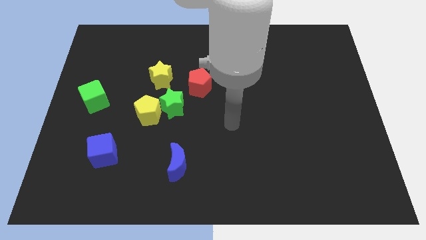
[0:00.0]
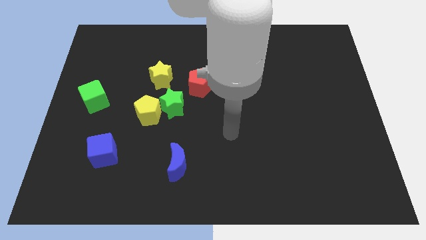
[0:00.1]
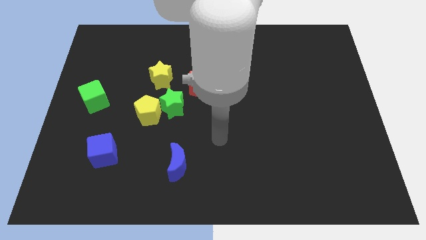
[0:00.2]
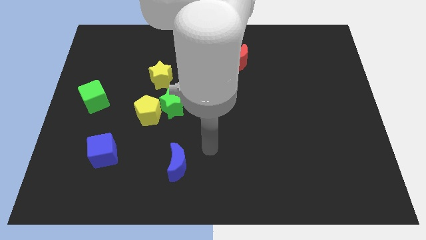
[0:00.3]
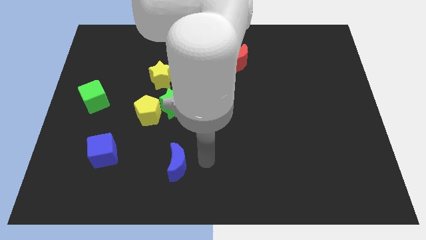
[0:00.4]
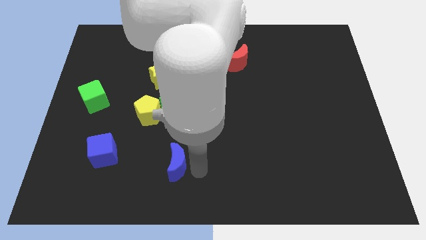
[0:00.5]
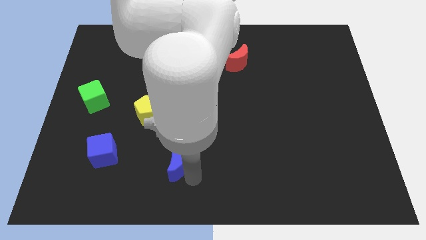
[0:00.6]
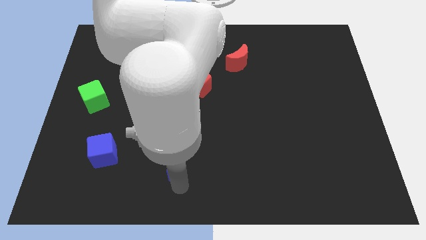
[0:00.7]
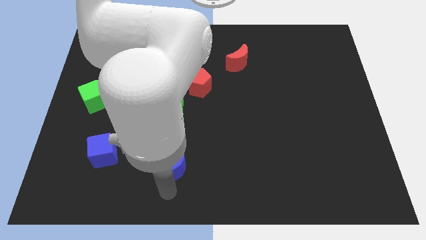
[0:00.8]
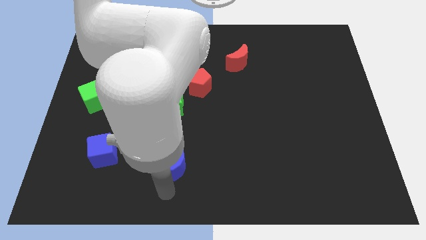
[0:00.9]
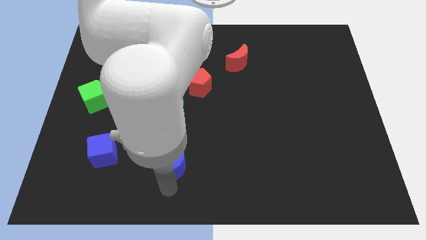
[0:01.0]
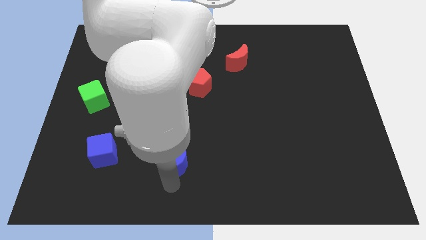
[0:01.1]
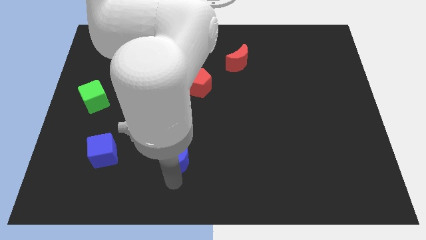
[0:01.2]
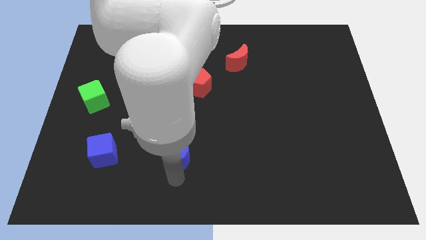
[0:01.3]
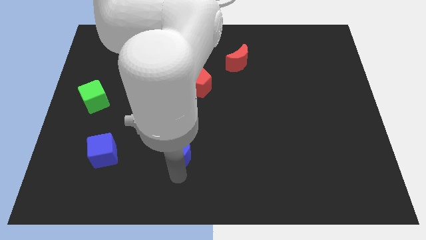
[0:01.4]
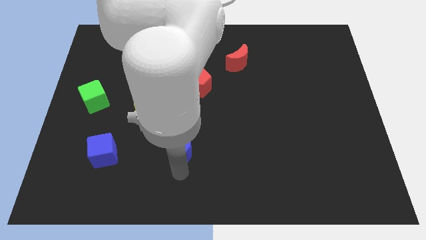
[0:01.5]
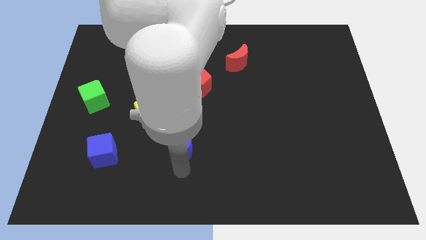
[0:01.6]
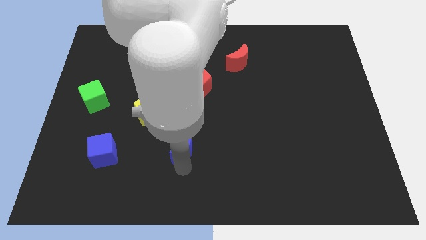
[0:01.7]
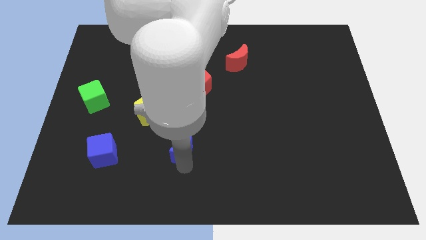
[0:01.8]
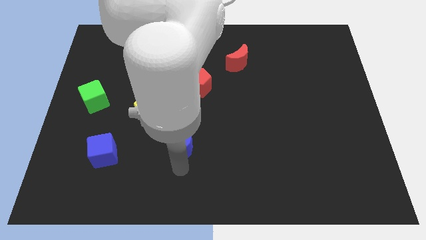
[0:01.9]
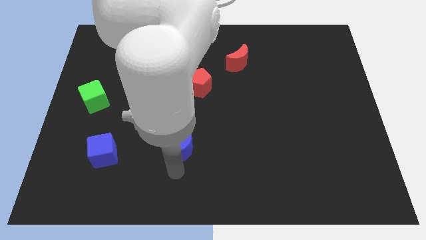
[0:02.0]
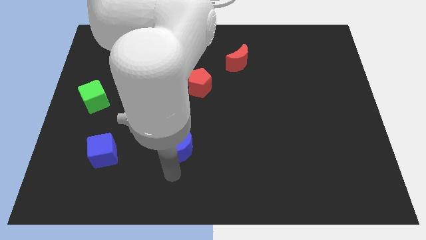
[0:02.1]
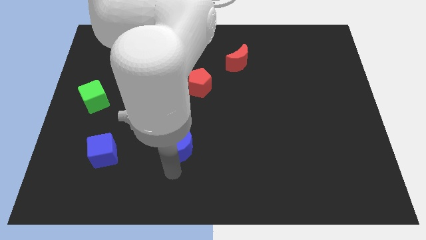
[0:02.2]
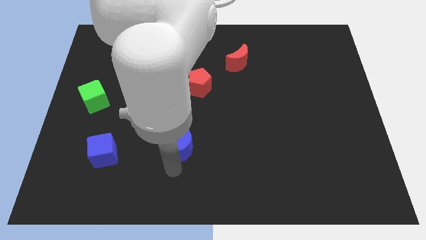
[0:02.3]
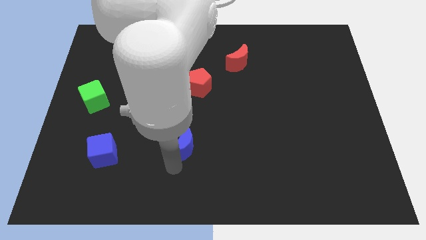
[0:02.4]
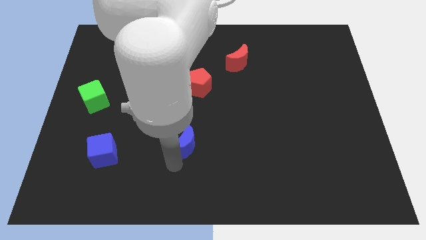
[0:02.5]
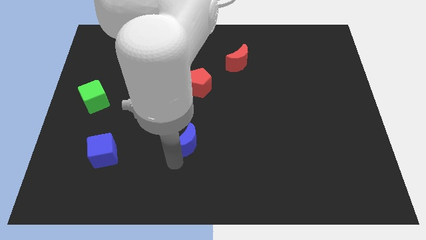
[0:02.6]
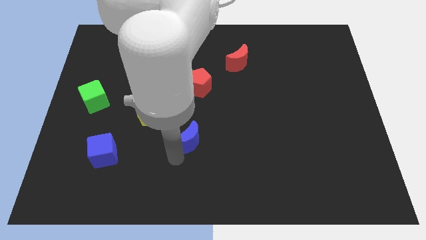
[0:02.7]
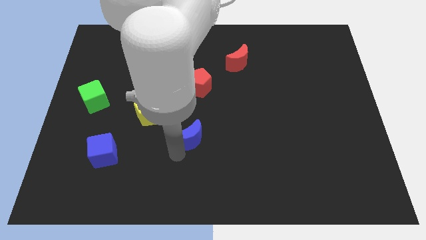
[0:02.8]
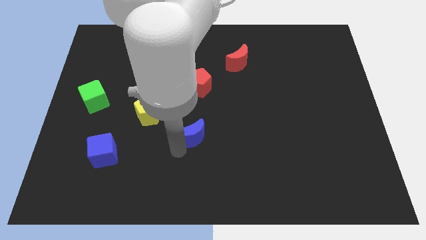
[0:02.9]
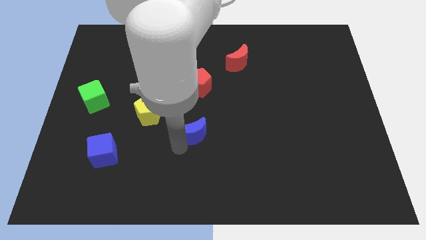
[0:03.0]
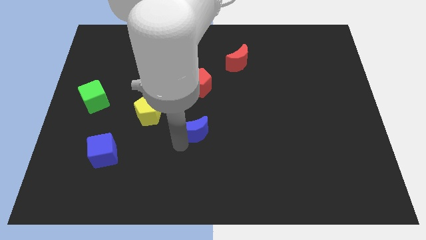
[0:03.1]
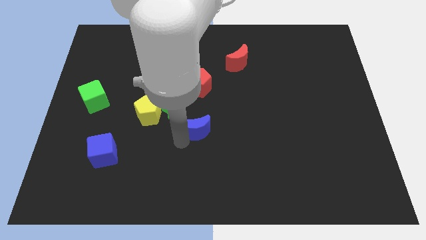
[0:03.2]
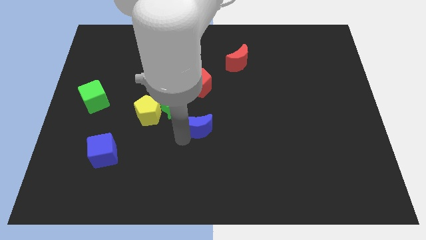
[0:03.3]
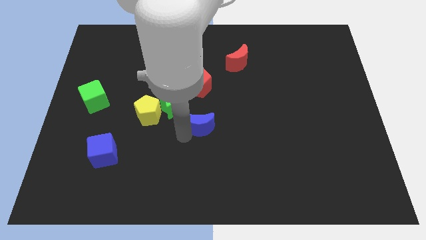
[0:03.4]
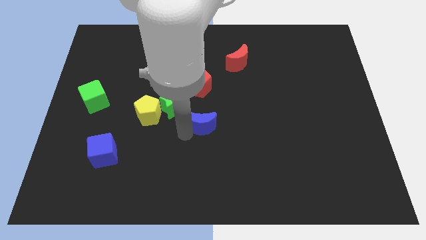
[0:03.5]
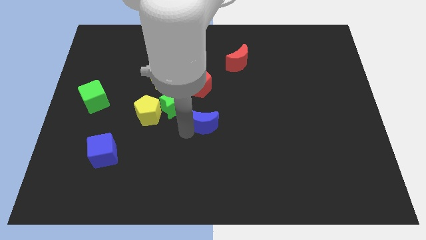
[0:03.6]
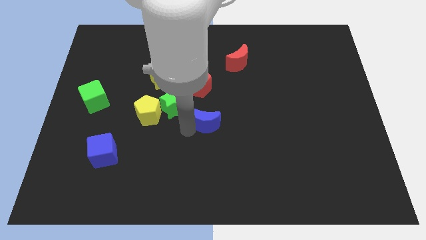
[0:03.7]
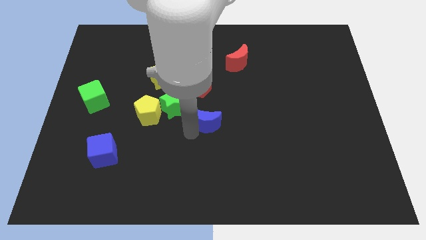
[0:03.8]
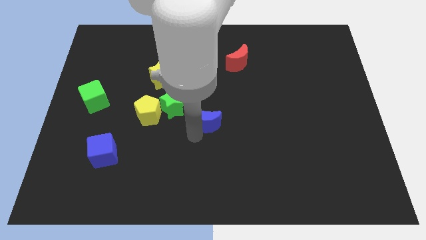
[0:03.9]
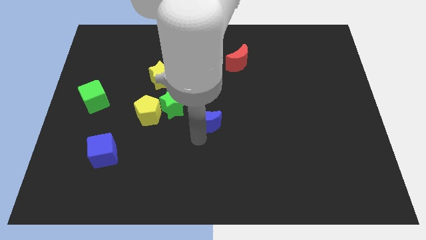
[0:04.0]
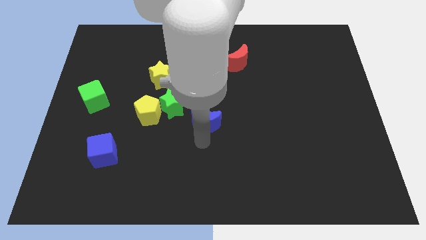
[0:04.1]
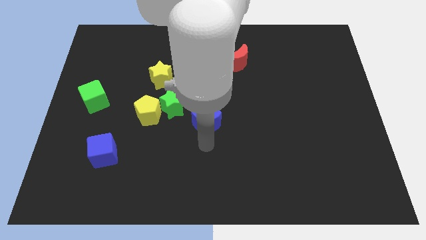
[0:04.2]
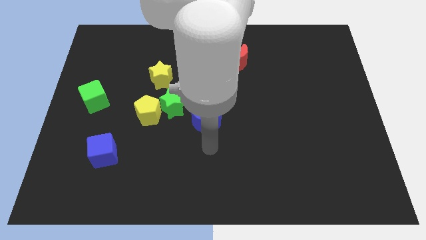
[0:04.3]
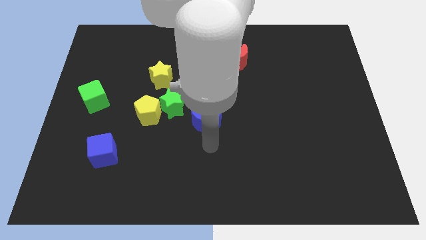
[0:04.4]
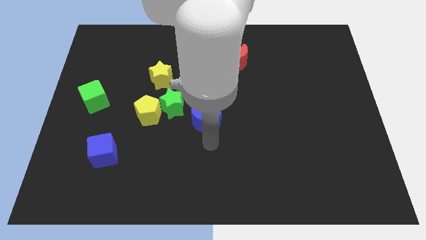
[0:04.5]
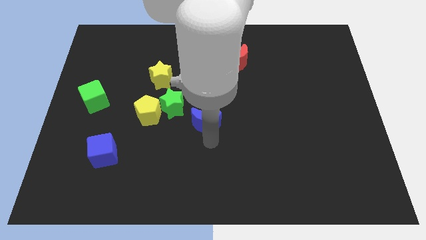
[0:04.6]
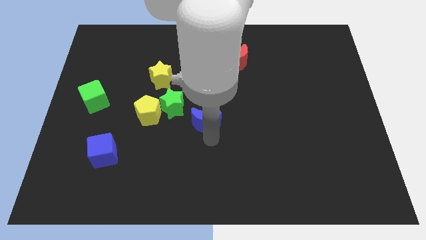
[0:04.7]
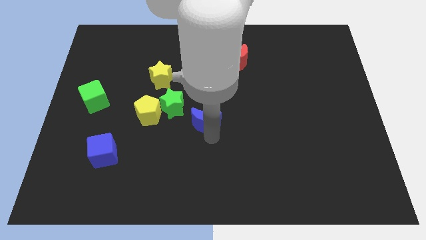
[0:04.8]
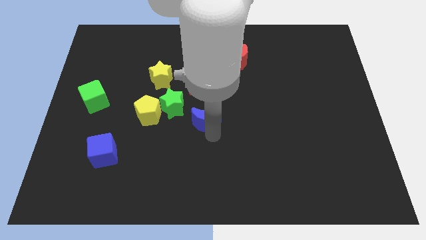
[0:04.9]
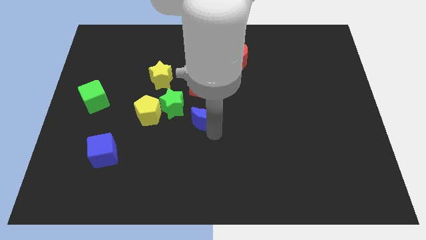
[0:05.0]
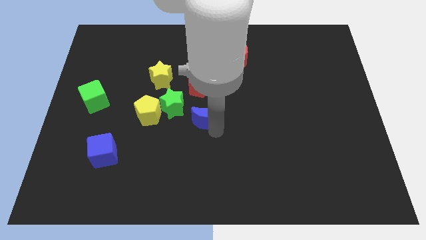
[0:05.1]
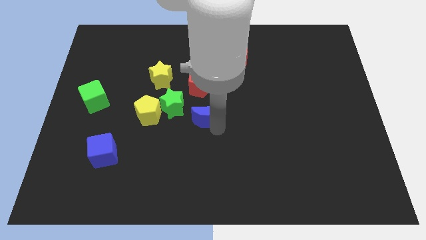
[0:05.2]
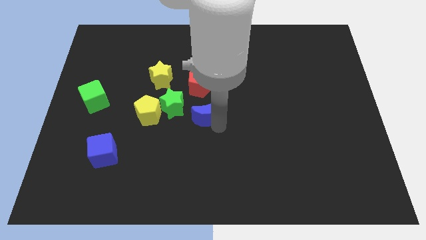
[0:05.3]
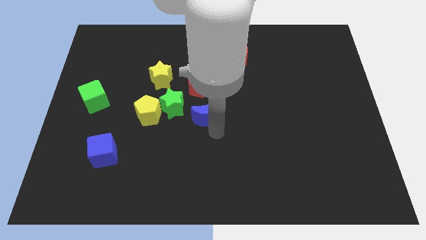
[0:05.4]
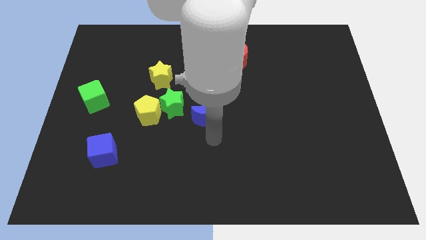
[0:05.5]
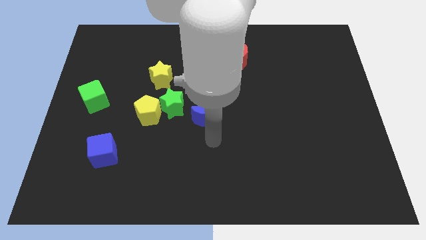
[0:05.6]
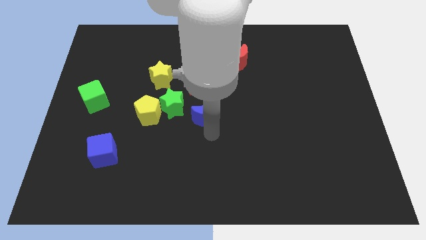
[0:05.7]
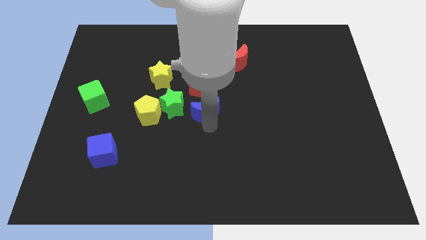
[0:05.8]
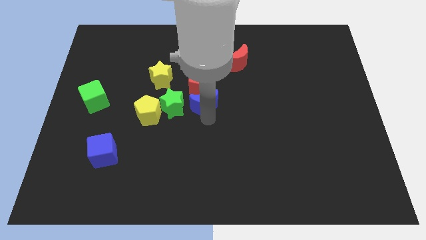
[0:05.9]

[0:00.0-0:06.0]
put the blue moon close to the red pentagon

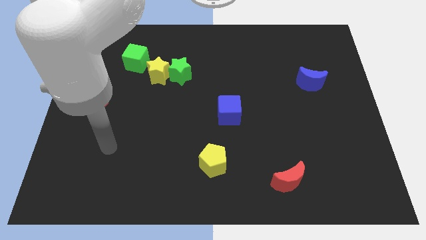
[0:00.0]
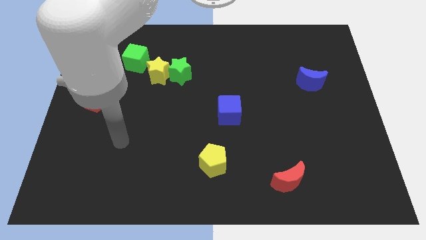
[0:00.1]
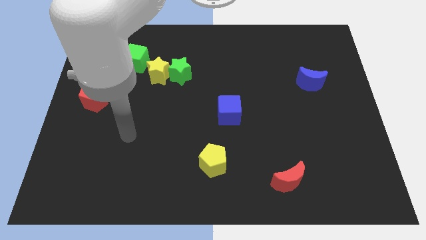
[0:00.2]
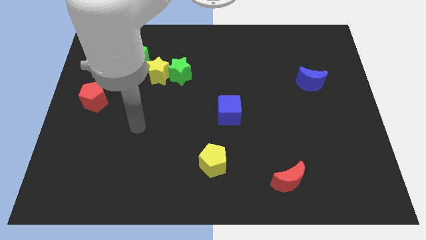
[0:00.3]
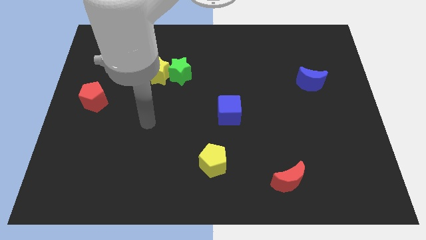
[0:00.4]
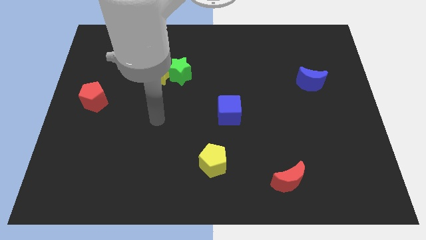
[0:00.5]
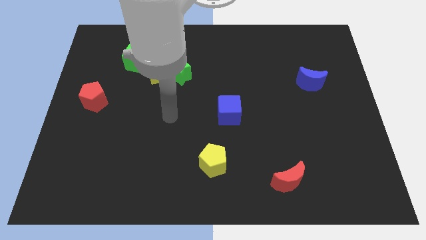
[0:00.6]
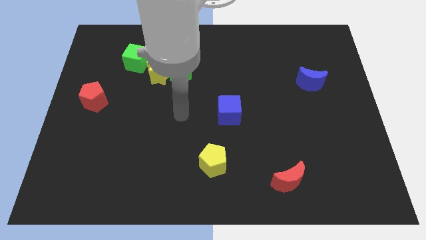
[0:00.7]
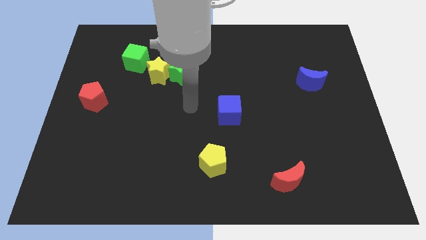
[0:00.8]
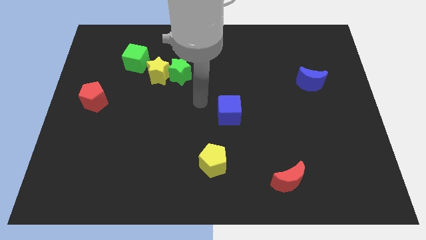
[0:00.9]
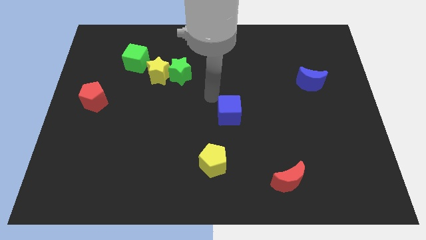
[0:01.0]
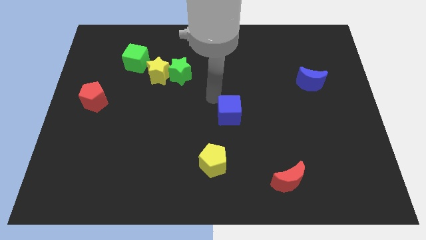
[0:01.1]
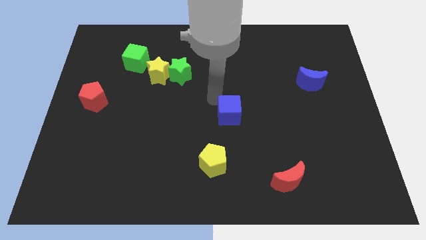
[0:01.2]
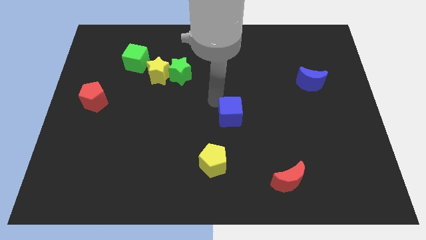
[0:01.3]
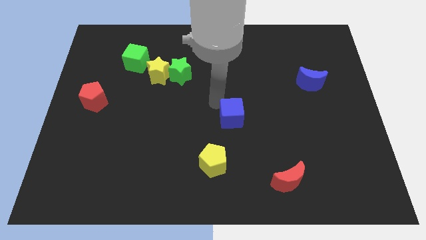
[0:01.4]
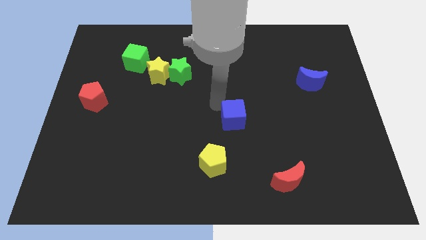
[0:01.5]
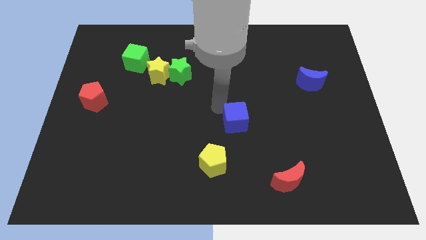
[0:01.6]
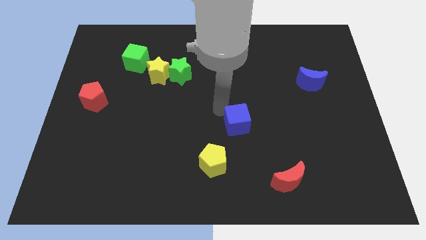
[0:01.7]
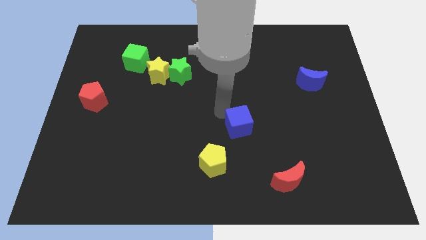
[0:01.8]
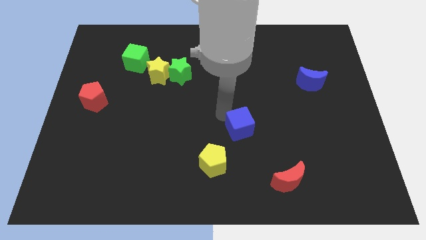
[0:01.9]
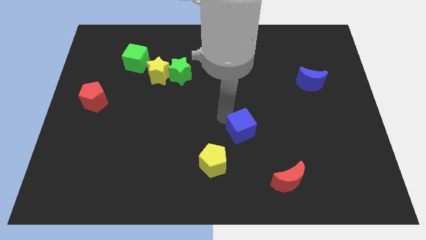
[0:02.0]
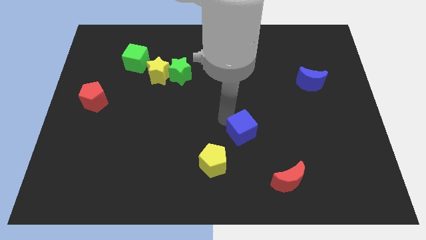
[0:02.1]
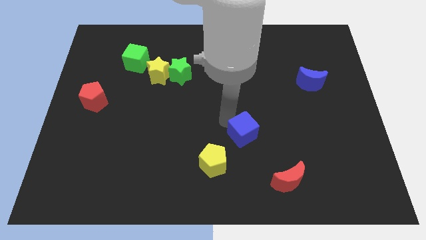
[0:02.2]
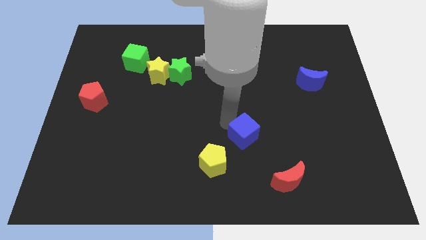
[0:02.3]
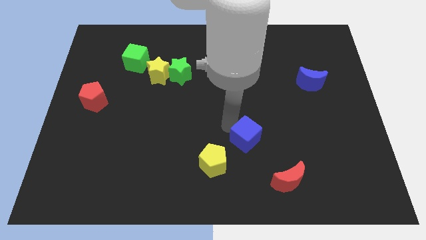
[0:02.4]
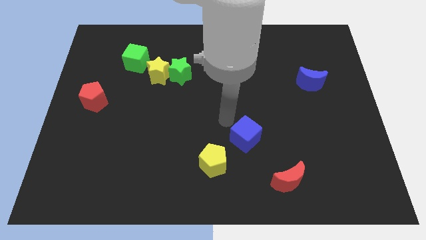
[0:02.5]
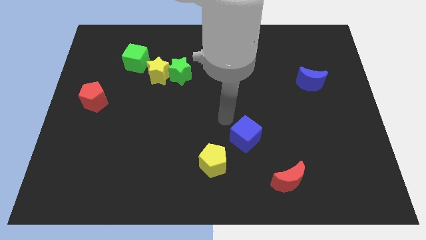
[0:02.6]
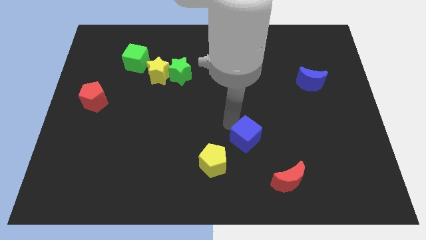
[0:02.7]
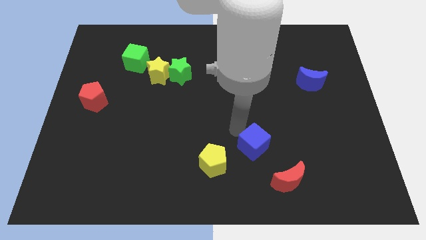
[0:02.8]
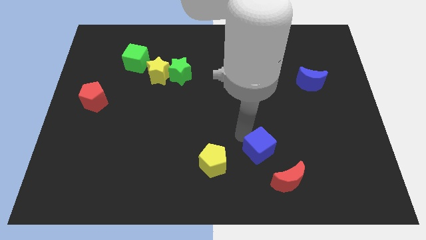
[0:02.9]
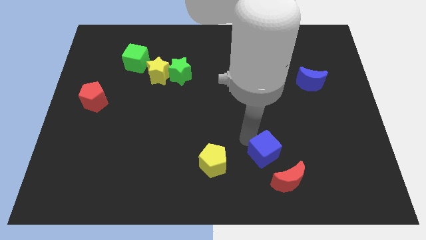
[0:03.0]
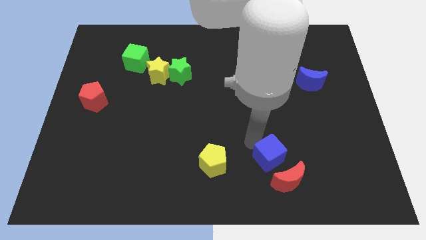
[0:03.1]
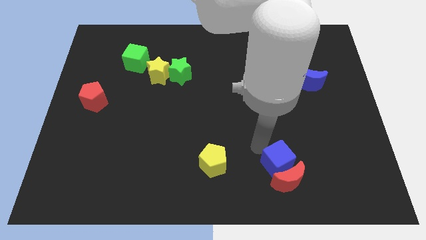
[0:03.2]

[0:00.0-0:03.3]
slide the blue cube towards the red moon
